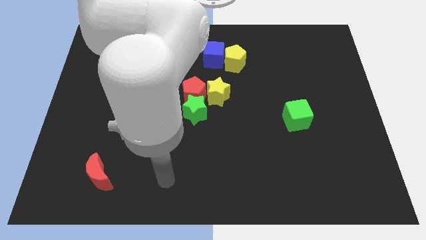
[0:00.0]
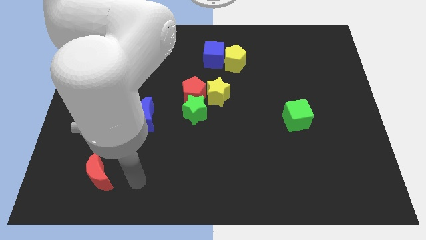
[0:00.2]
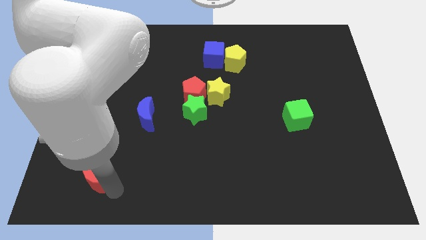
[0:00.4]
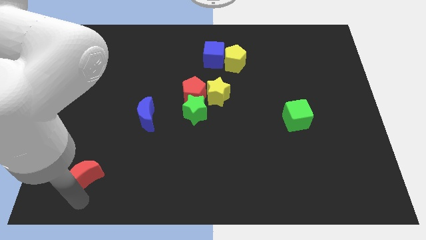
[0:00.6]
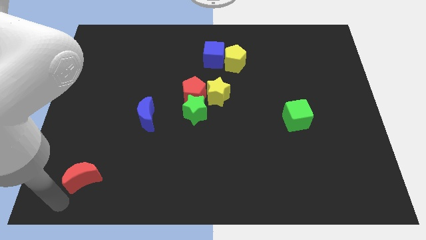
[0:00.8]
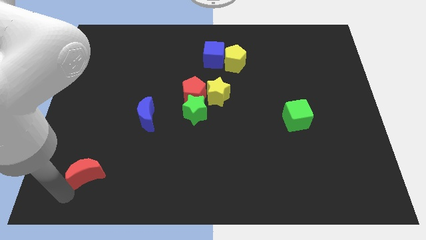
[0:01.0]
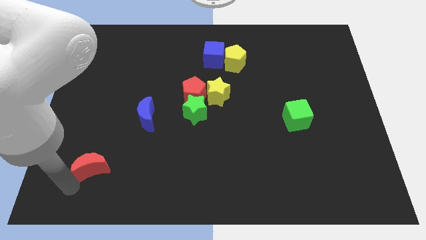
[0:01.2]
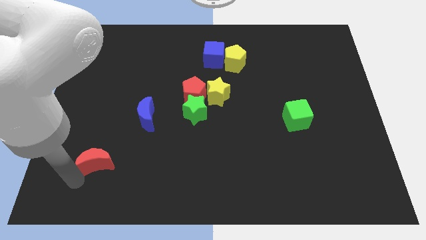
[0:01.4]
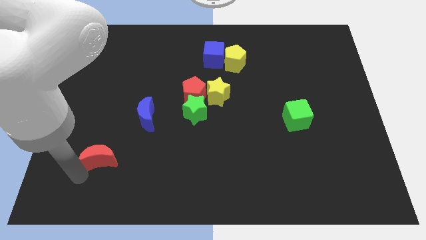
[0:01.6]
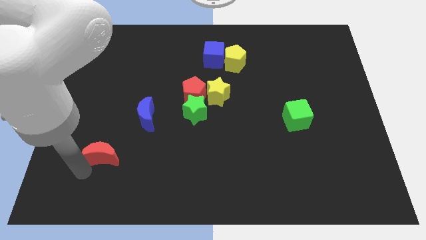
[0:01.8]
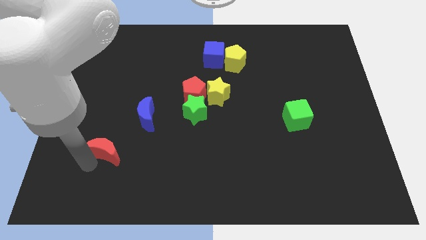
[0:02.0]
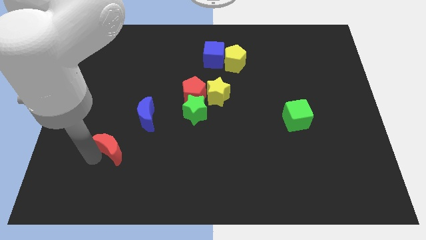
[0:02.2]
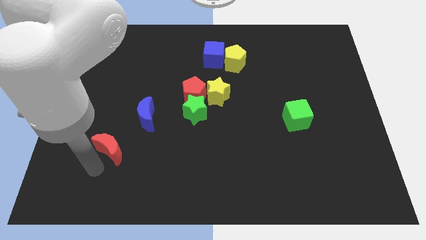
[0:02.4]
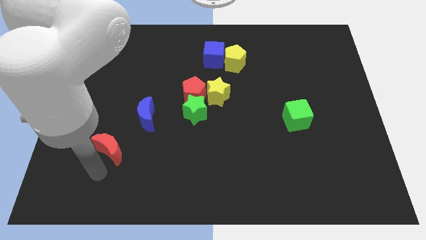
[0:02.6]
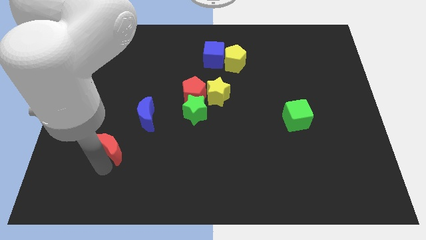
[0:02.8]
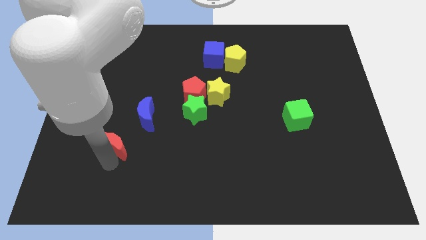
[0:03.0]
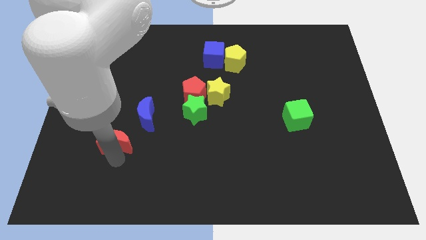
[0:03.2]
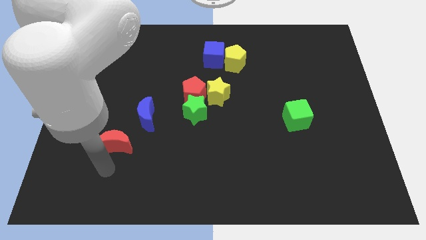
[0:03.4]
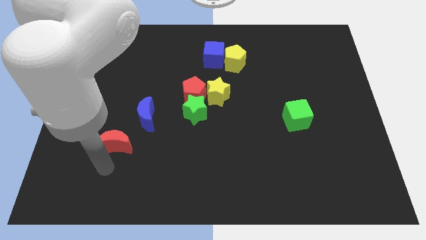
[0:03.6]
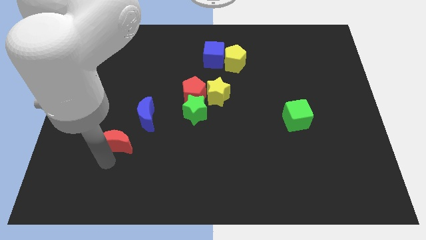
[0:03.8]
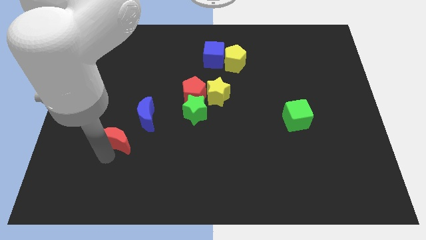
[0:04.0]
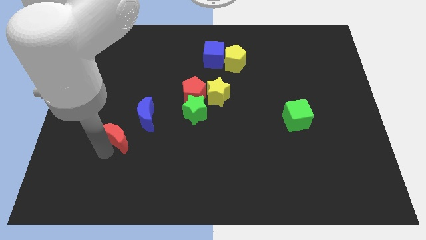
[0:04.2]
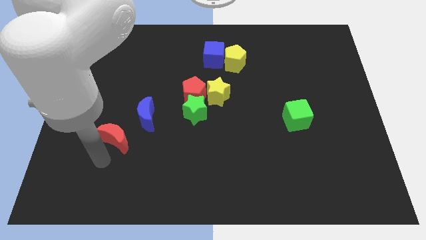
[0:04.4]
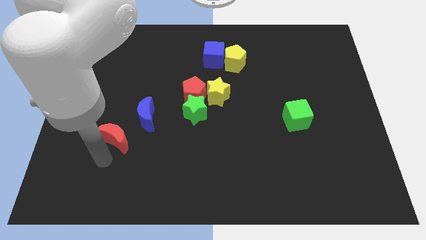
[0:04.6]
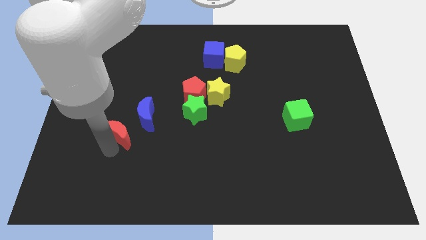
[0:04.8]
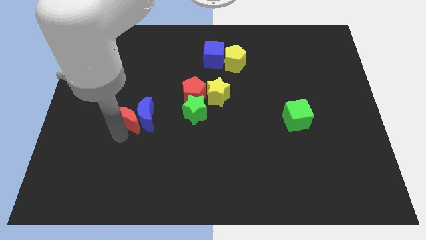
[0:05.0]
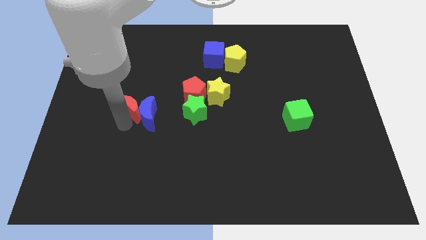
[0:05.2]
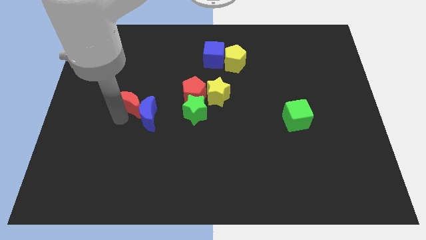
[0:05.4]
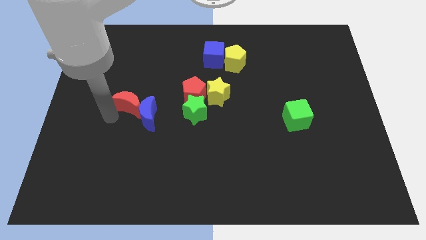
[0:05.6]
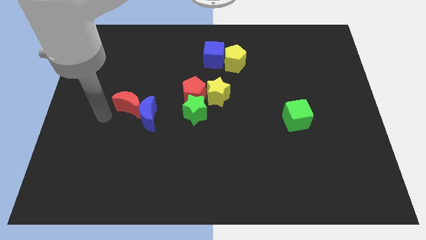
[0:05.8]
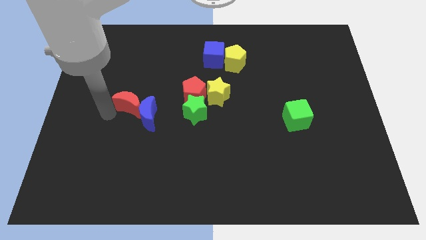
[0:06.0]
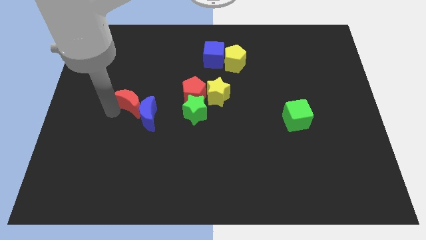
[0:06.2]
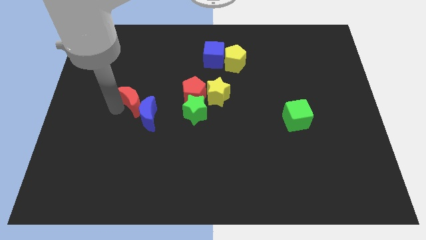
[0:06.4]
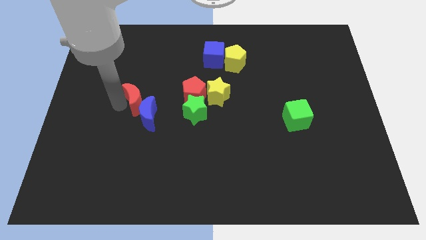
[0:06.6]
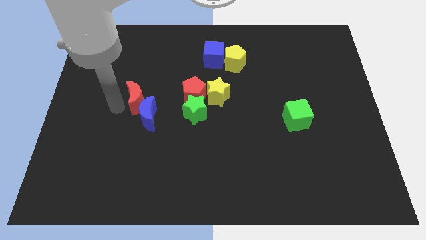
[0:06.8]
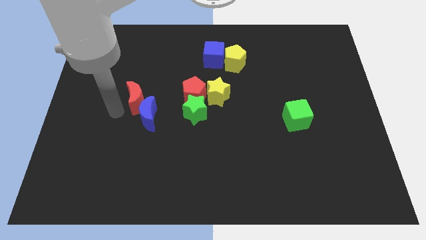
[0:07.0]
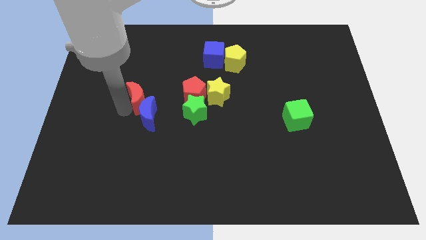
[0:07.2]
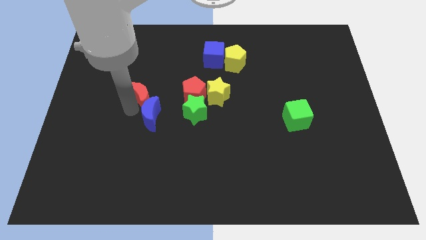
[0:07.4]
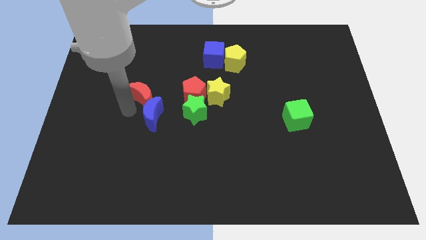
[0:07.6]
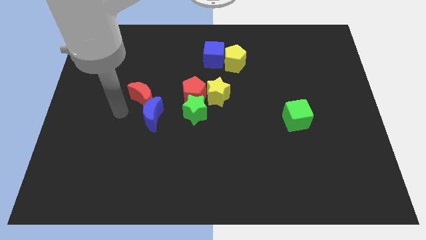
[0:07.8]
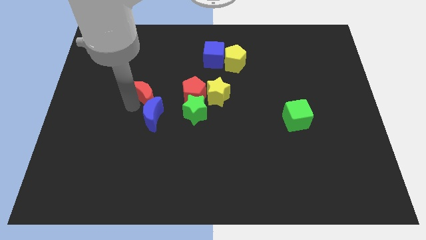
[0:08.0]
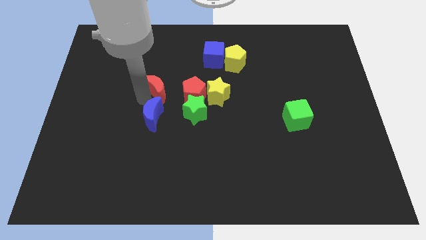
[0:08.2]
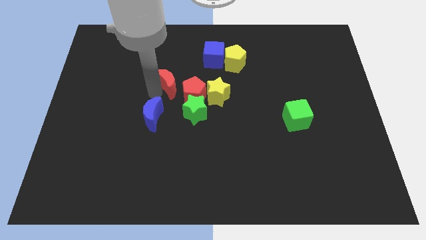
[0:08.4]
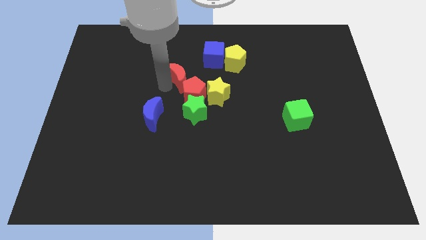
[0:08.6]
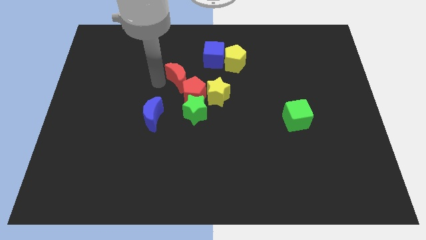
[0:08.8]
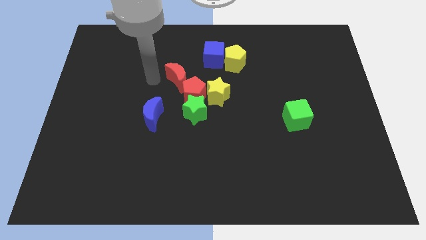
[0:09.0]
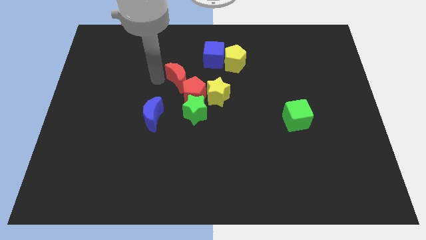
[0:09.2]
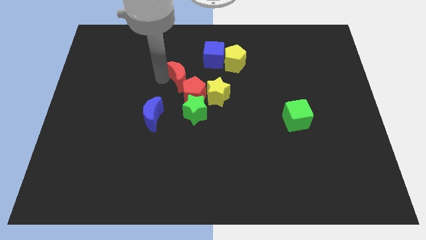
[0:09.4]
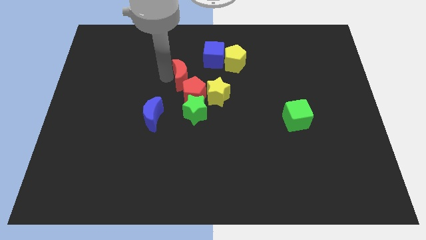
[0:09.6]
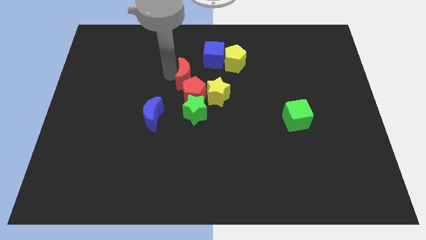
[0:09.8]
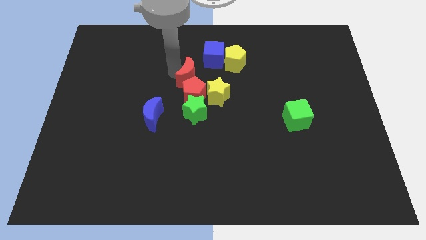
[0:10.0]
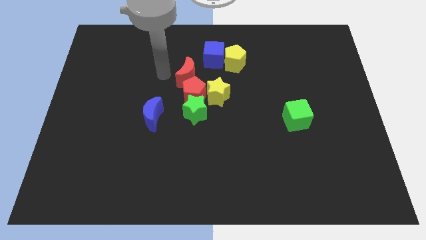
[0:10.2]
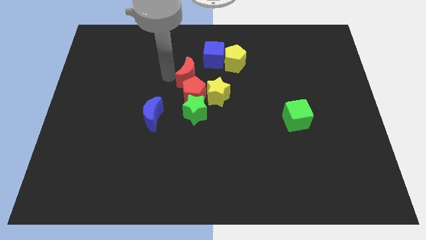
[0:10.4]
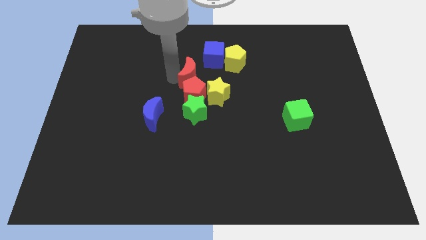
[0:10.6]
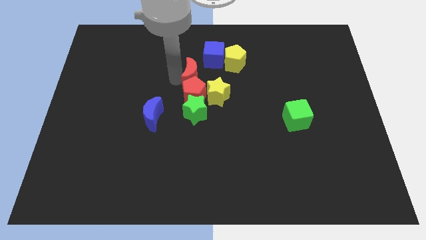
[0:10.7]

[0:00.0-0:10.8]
push the red moon to the top right of the red pentagon

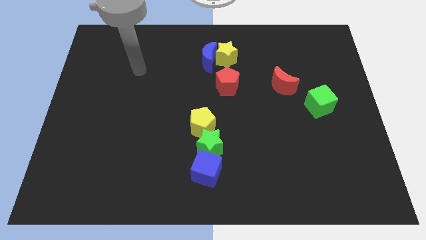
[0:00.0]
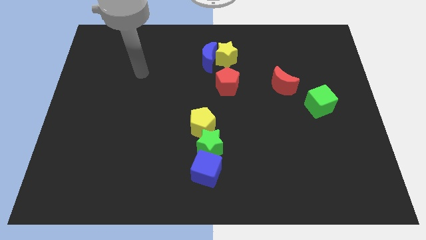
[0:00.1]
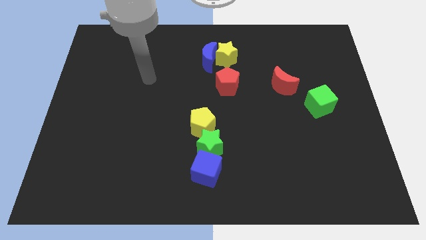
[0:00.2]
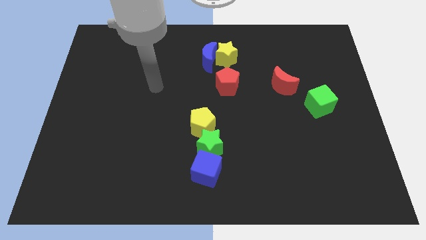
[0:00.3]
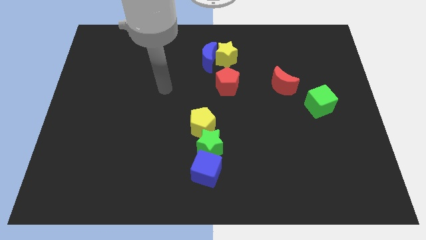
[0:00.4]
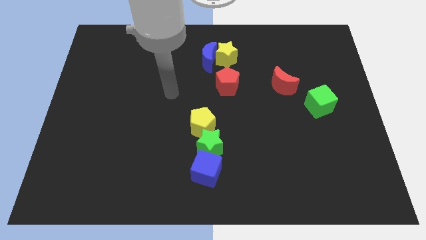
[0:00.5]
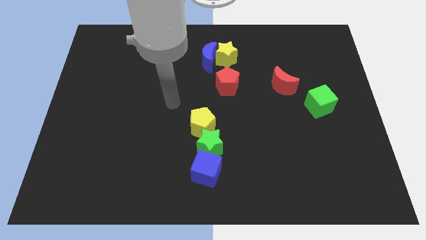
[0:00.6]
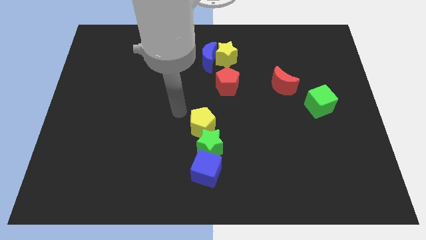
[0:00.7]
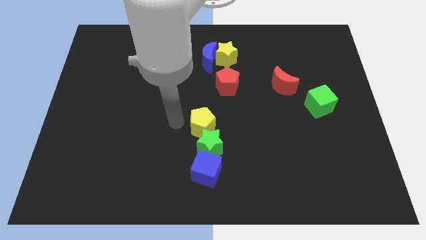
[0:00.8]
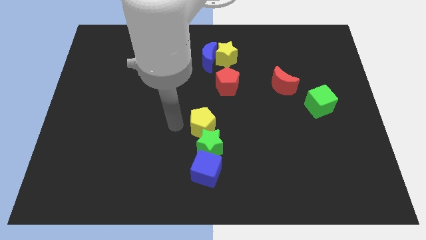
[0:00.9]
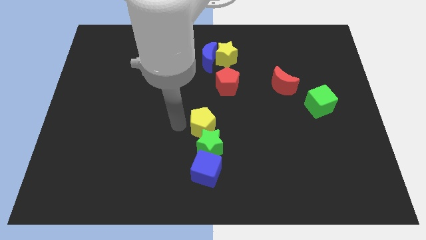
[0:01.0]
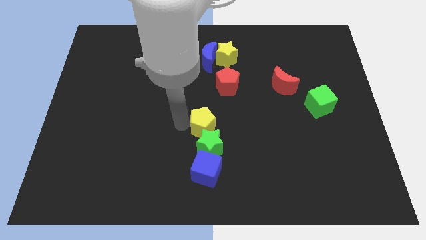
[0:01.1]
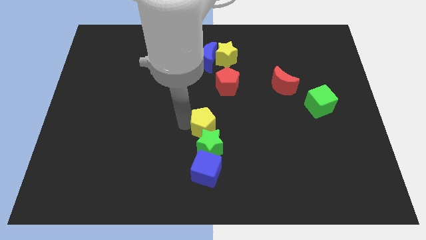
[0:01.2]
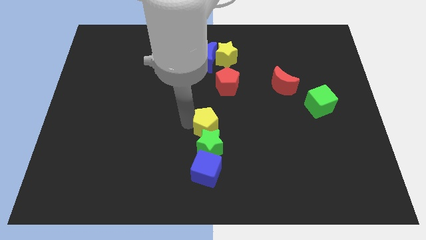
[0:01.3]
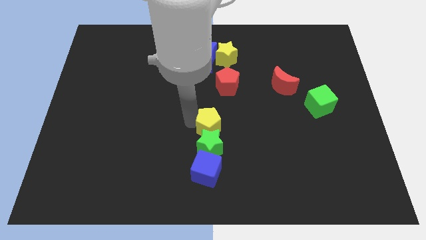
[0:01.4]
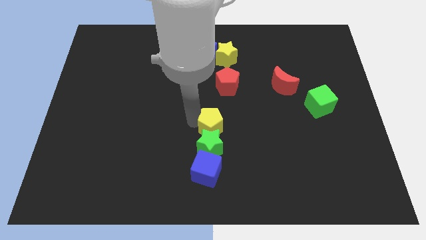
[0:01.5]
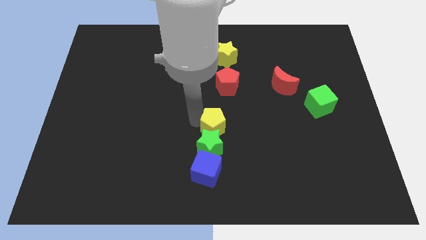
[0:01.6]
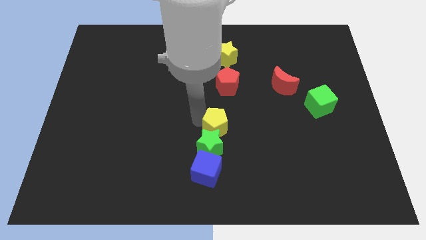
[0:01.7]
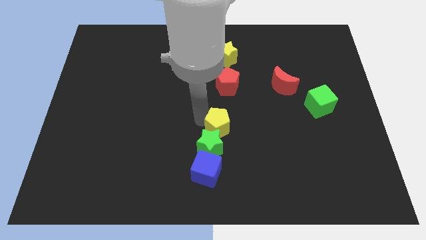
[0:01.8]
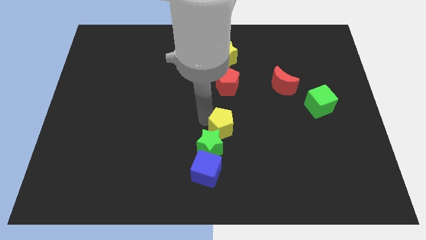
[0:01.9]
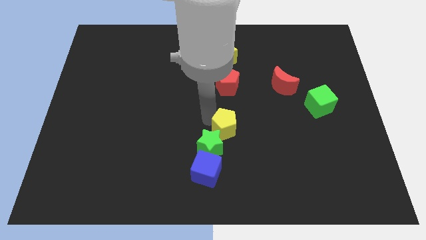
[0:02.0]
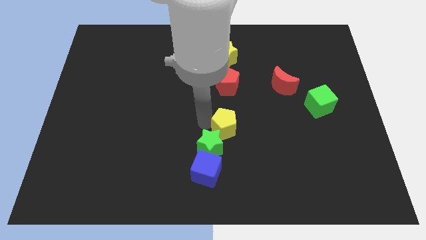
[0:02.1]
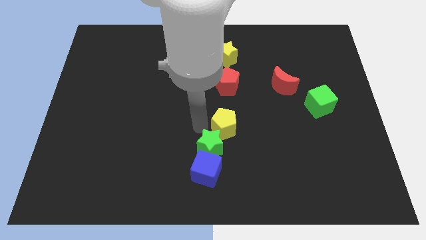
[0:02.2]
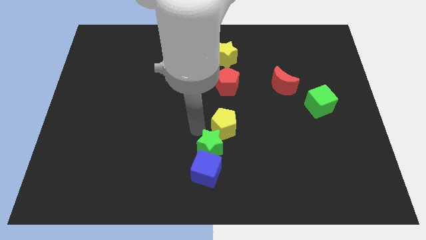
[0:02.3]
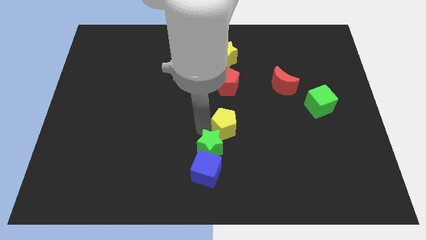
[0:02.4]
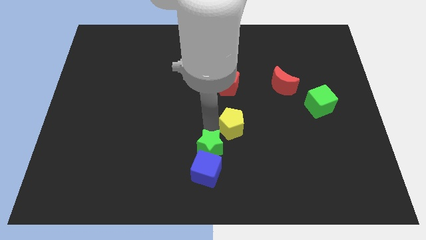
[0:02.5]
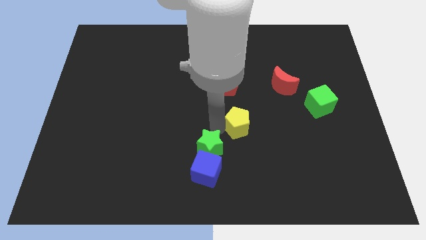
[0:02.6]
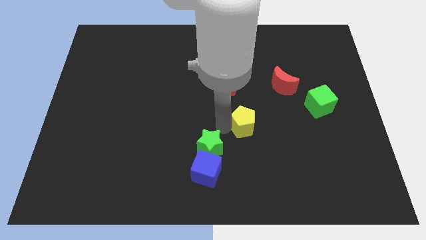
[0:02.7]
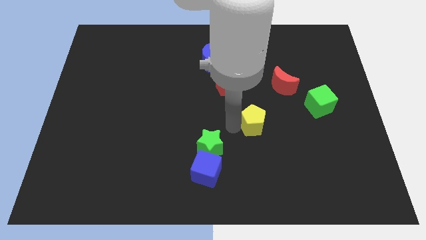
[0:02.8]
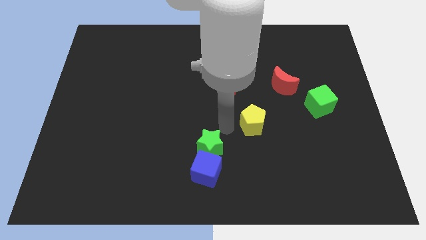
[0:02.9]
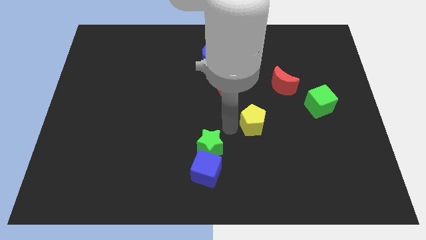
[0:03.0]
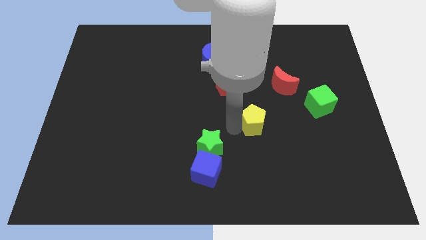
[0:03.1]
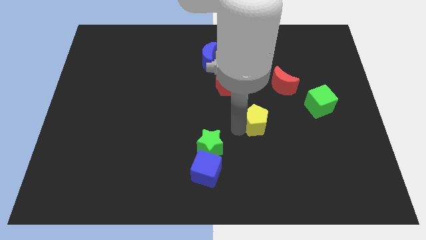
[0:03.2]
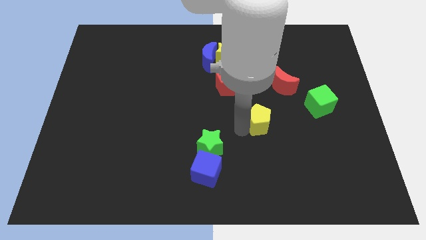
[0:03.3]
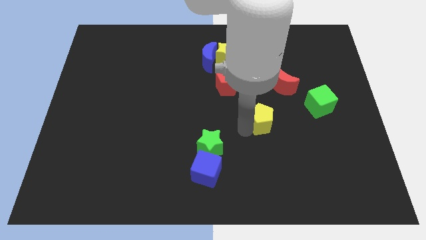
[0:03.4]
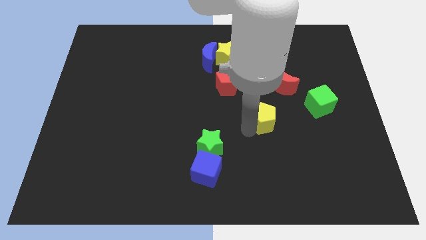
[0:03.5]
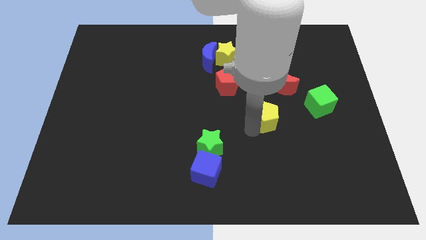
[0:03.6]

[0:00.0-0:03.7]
push the yellow pentagon to the bottom of the red moon
